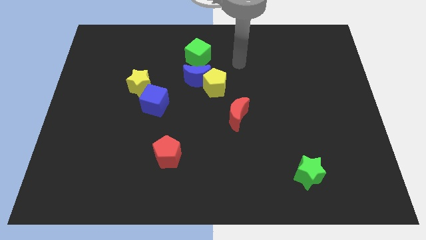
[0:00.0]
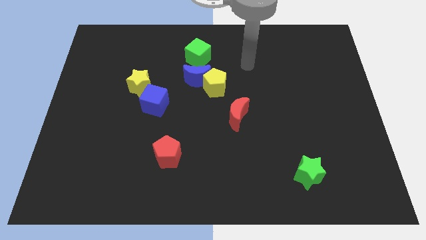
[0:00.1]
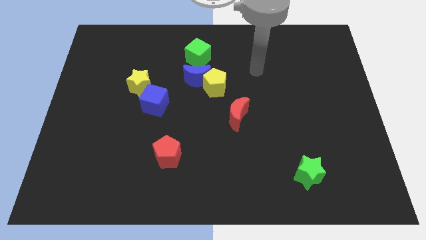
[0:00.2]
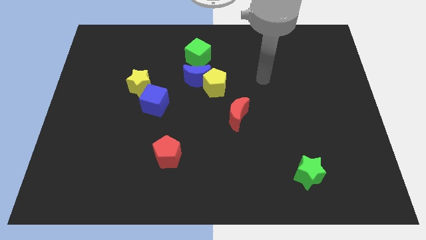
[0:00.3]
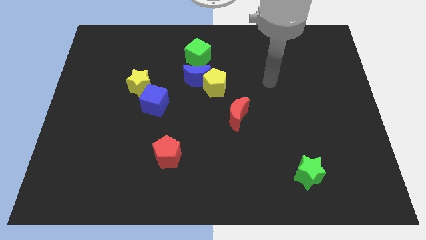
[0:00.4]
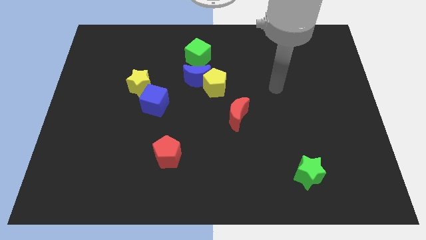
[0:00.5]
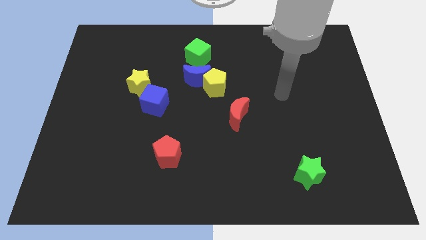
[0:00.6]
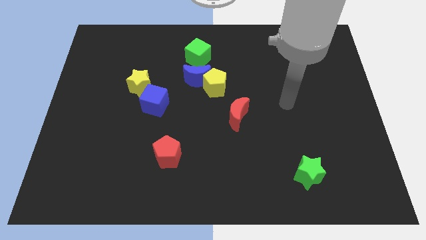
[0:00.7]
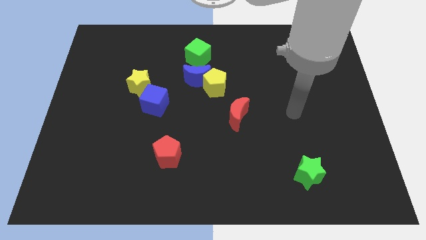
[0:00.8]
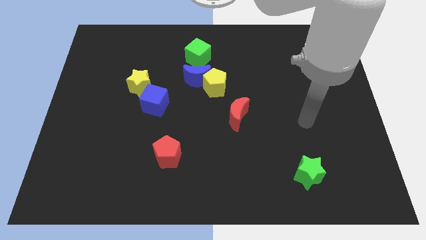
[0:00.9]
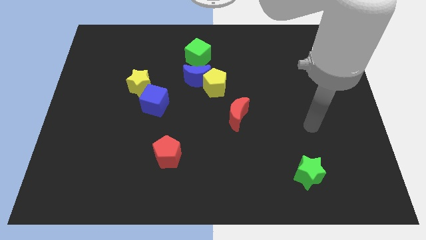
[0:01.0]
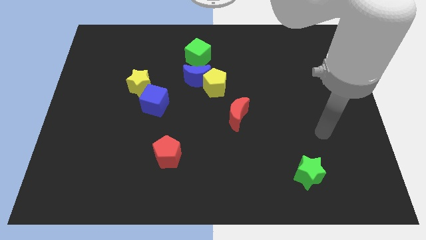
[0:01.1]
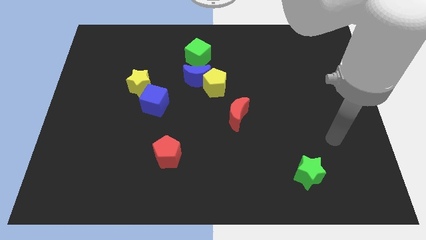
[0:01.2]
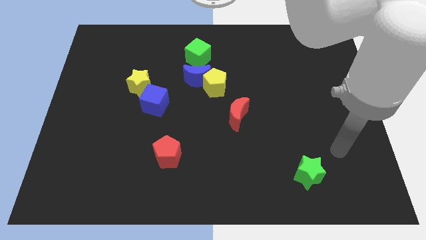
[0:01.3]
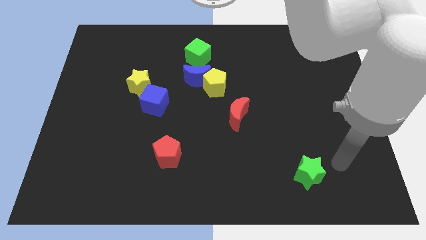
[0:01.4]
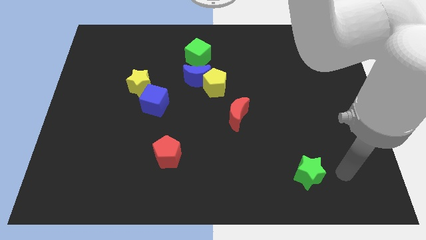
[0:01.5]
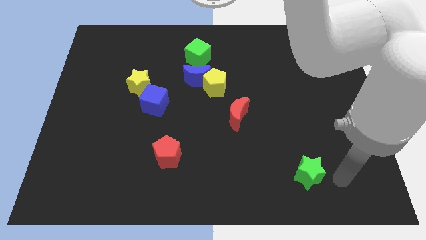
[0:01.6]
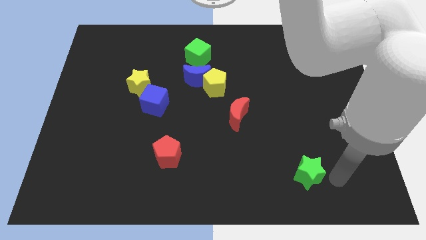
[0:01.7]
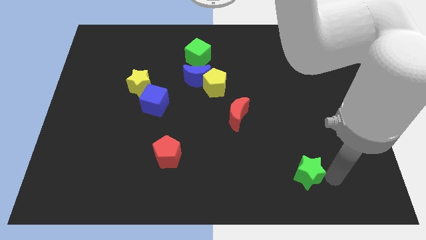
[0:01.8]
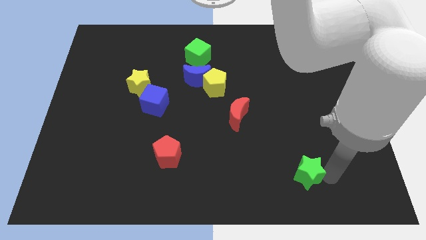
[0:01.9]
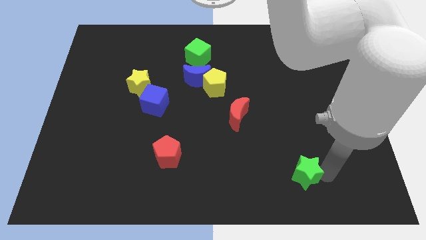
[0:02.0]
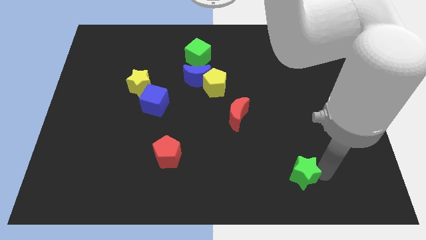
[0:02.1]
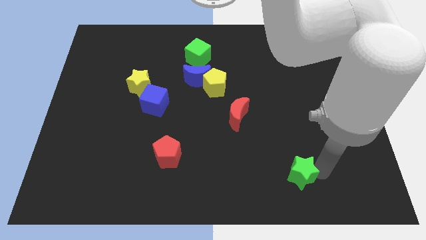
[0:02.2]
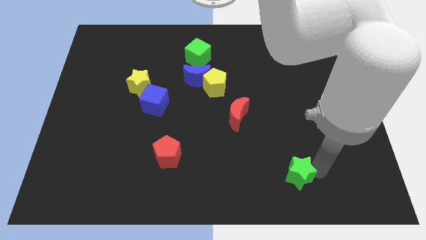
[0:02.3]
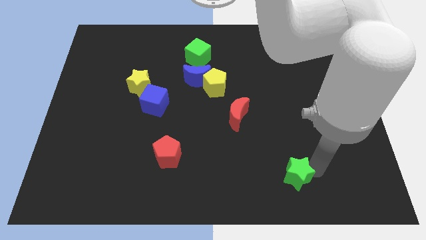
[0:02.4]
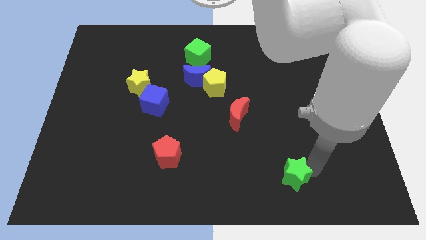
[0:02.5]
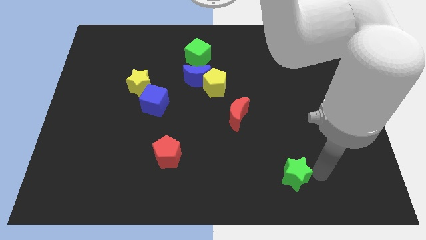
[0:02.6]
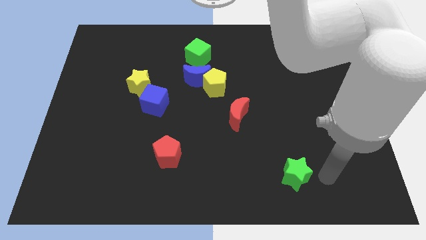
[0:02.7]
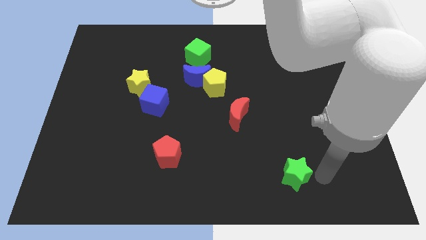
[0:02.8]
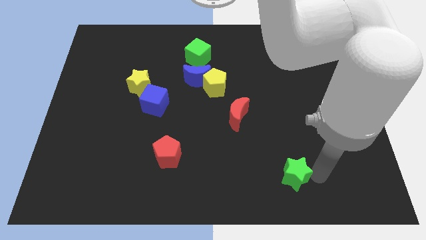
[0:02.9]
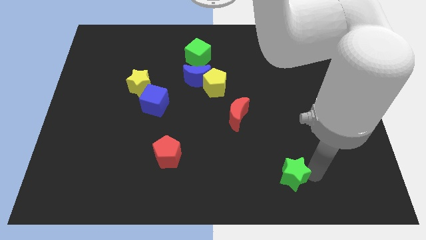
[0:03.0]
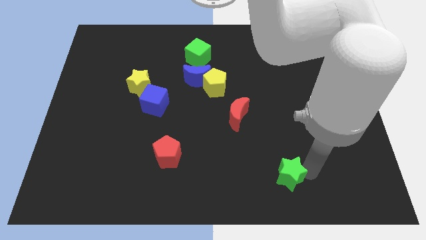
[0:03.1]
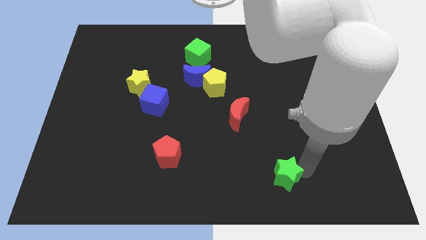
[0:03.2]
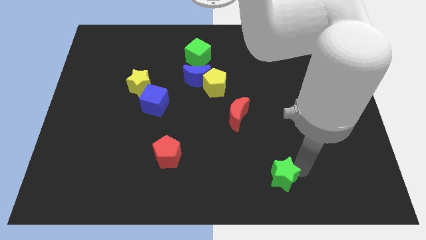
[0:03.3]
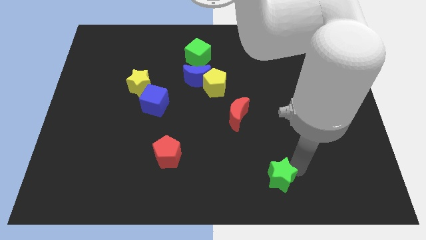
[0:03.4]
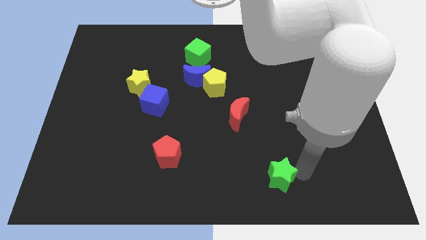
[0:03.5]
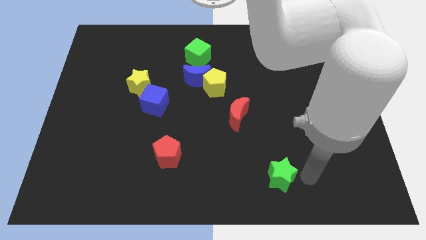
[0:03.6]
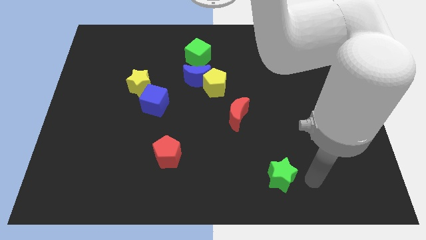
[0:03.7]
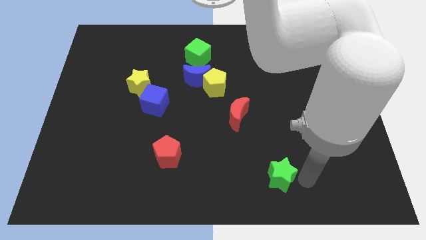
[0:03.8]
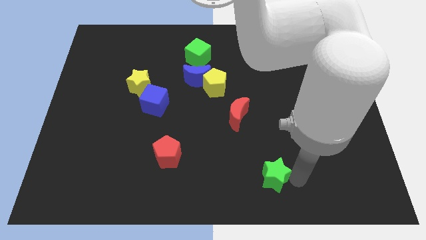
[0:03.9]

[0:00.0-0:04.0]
slide the green star somewhat left

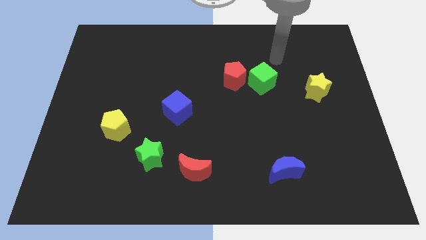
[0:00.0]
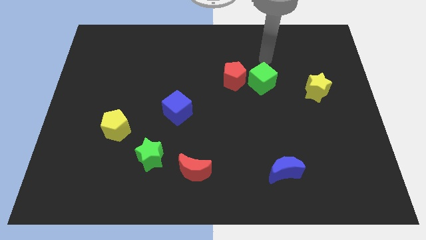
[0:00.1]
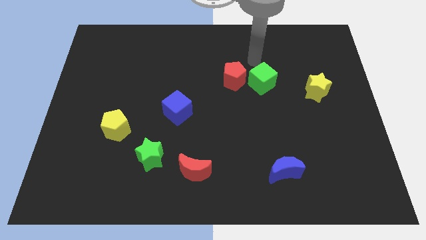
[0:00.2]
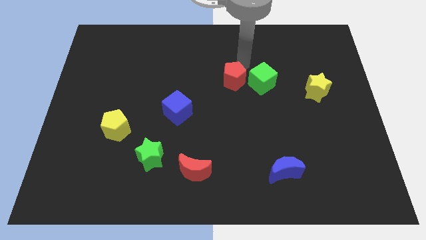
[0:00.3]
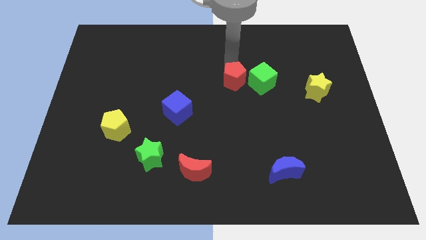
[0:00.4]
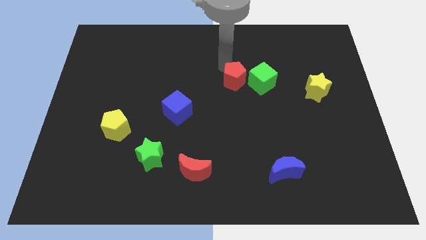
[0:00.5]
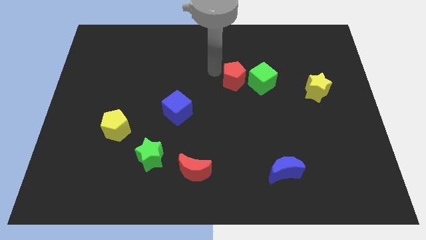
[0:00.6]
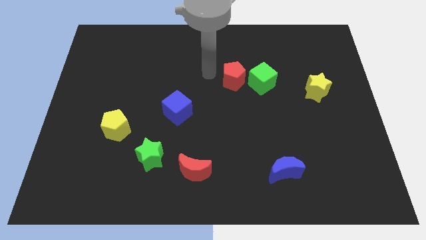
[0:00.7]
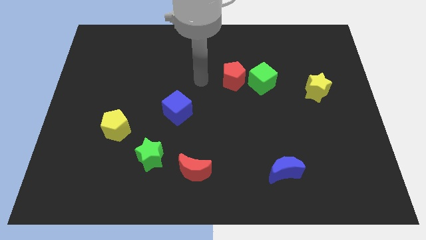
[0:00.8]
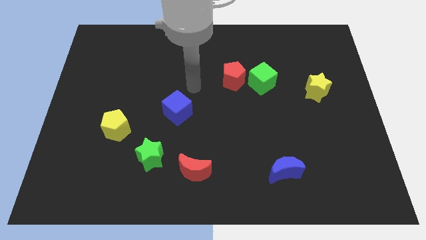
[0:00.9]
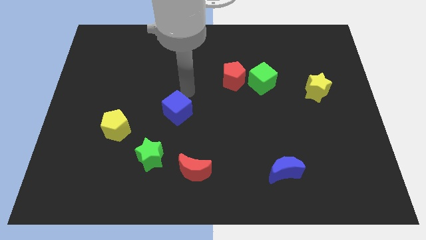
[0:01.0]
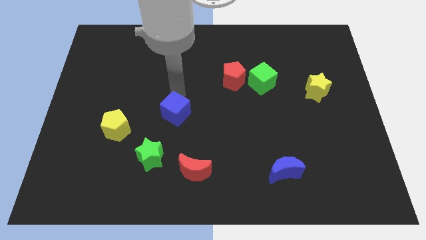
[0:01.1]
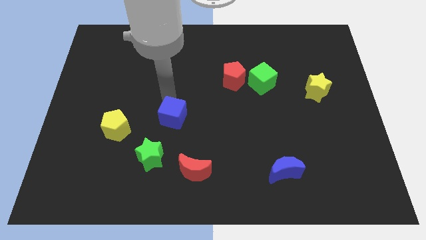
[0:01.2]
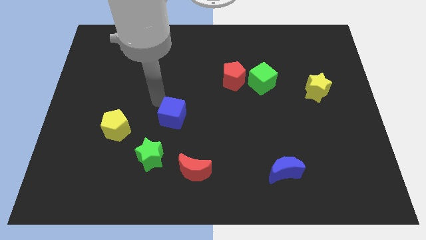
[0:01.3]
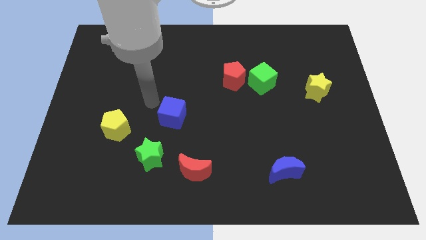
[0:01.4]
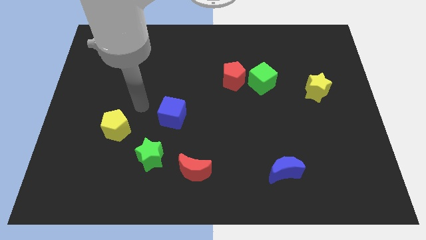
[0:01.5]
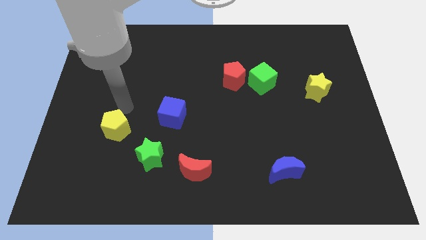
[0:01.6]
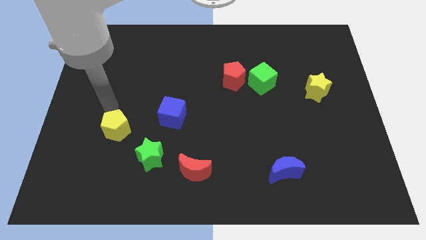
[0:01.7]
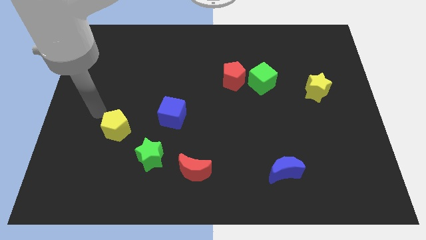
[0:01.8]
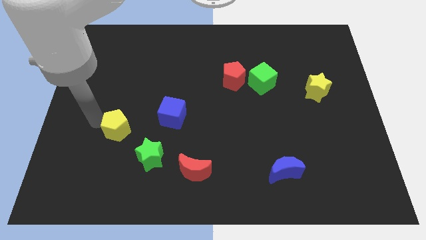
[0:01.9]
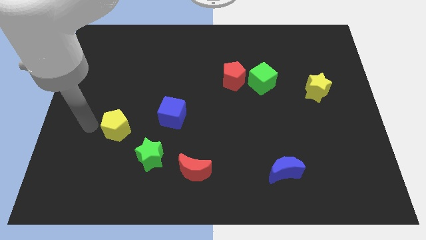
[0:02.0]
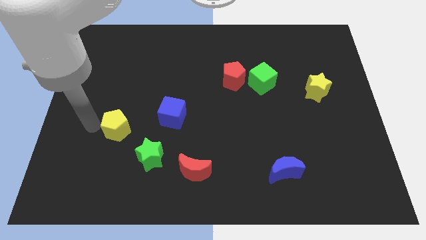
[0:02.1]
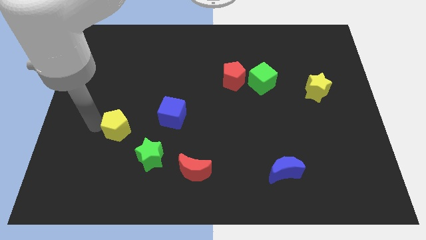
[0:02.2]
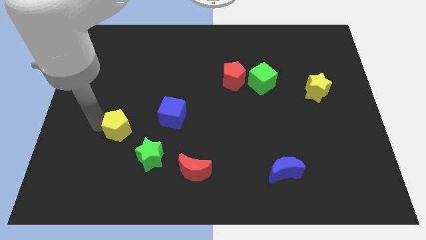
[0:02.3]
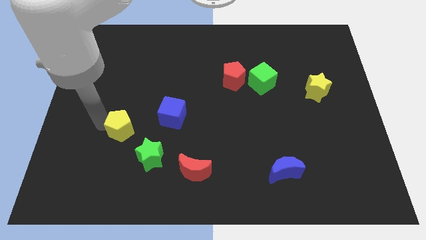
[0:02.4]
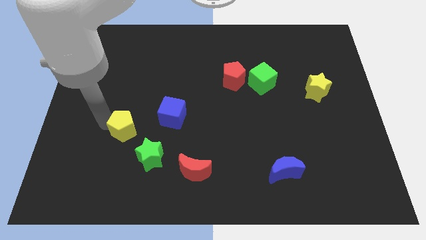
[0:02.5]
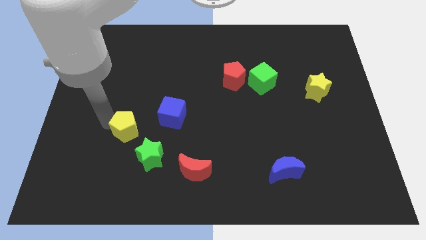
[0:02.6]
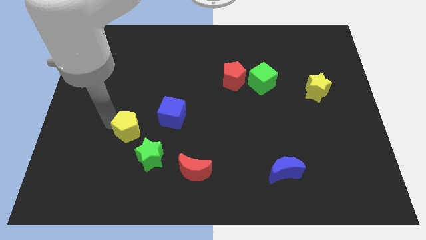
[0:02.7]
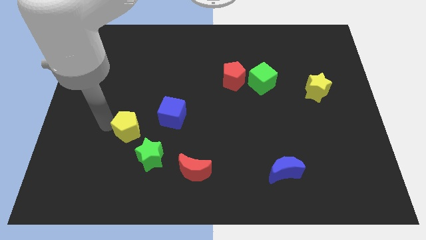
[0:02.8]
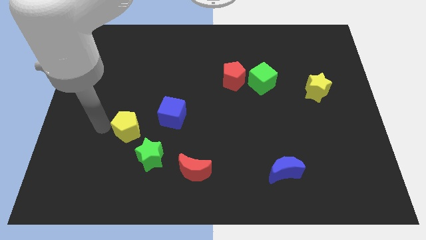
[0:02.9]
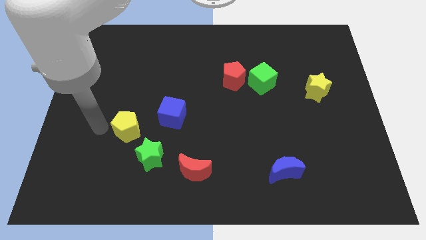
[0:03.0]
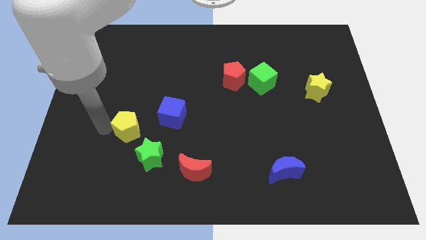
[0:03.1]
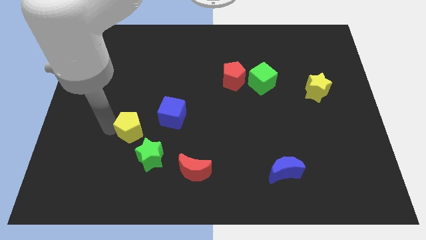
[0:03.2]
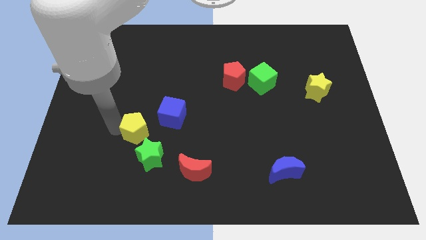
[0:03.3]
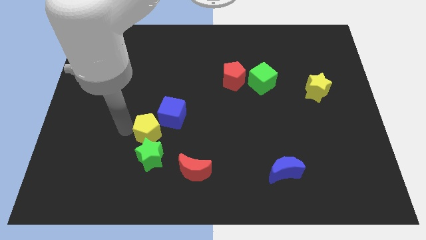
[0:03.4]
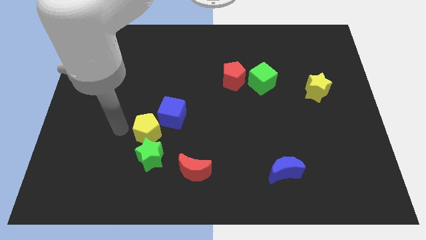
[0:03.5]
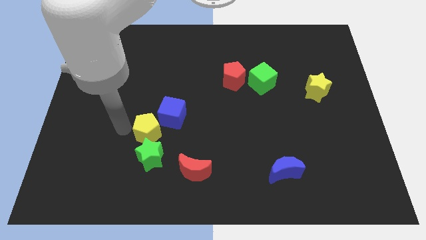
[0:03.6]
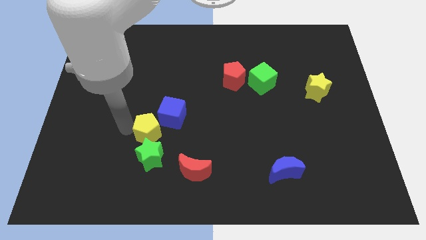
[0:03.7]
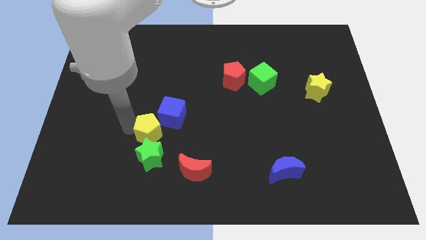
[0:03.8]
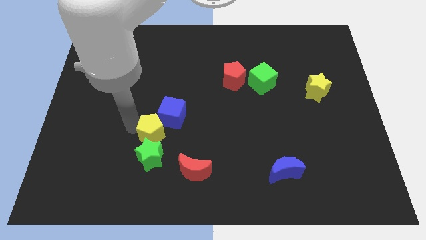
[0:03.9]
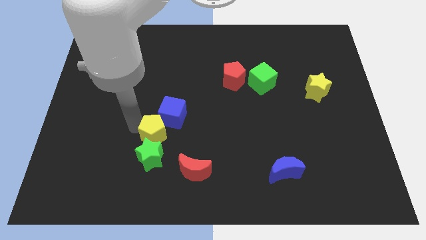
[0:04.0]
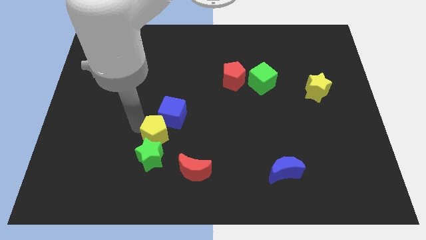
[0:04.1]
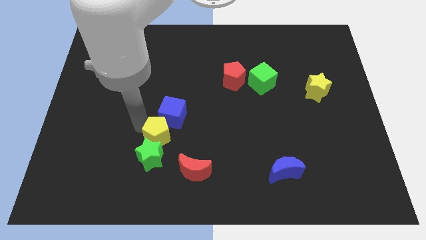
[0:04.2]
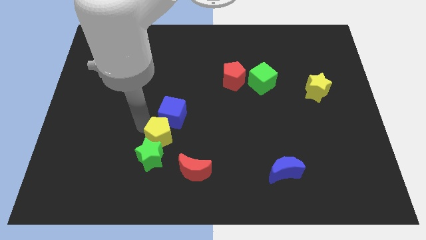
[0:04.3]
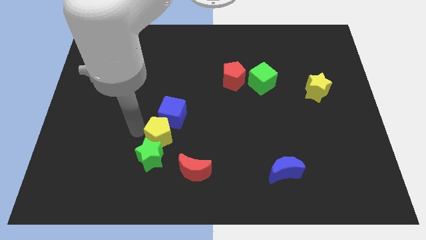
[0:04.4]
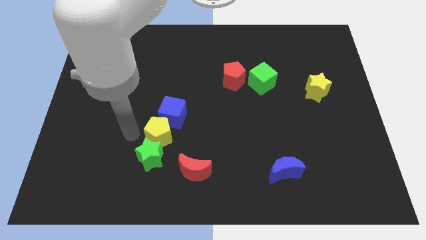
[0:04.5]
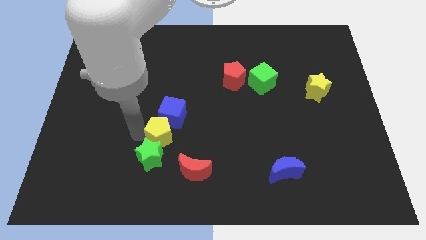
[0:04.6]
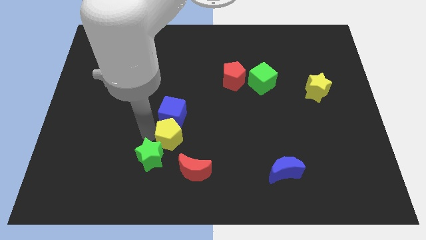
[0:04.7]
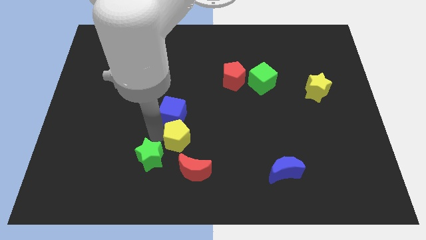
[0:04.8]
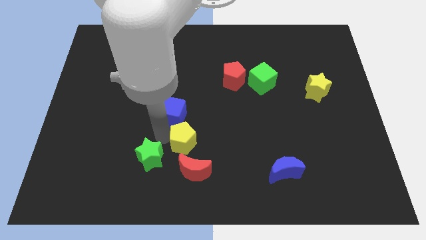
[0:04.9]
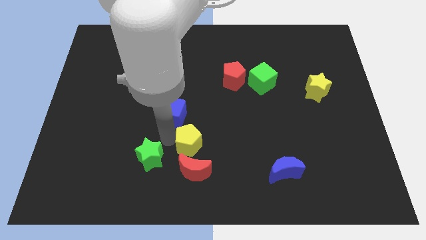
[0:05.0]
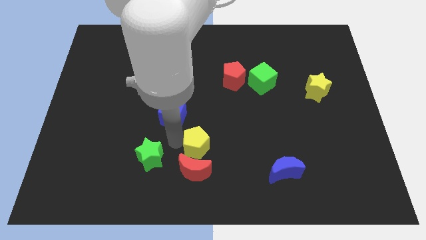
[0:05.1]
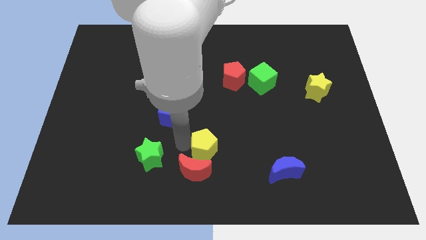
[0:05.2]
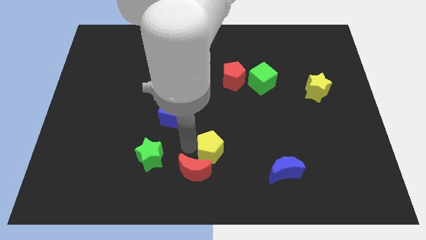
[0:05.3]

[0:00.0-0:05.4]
slide the yellow pentagon right
